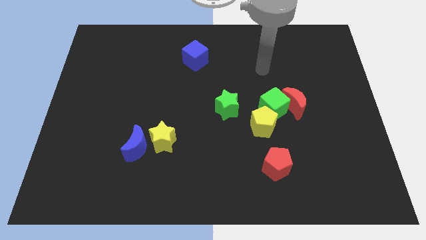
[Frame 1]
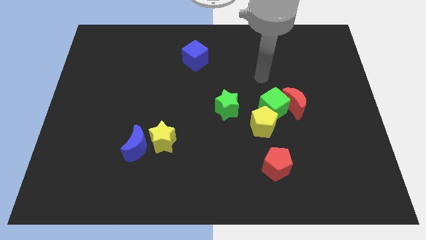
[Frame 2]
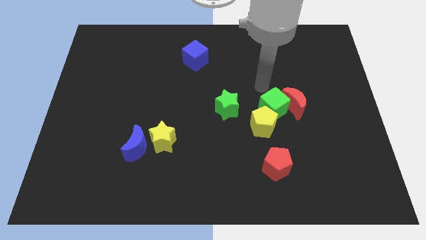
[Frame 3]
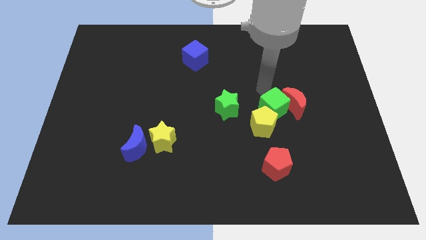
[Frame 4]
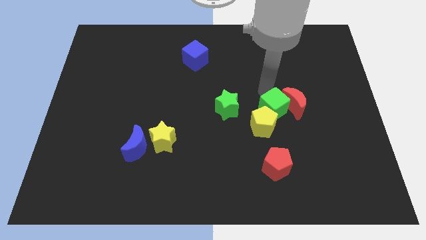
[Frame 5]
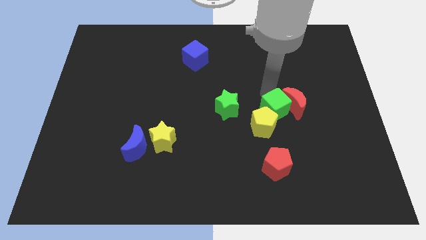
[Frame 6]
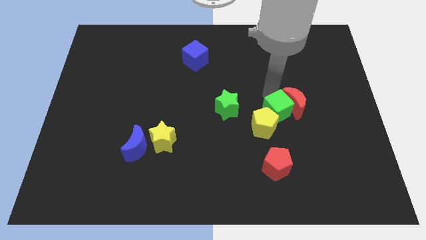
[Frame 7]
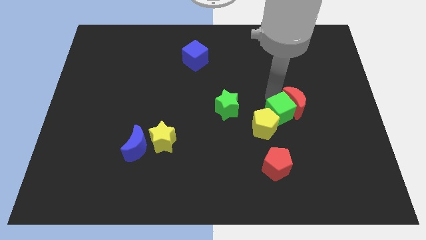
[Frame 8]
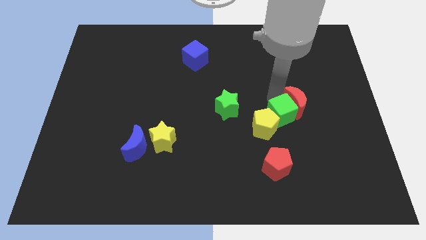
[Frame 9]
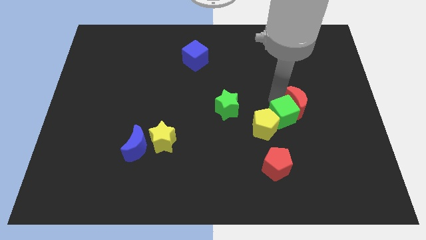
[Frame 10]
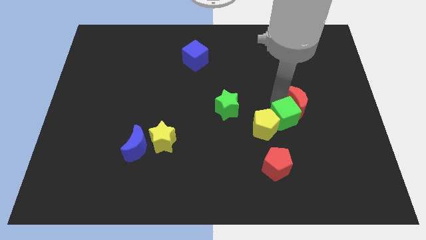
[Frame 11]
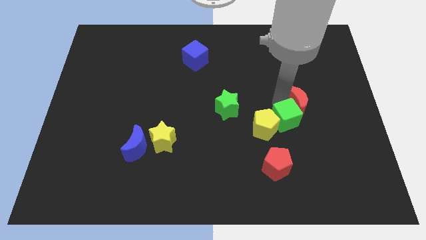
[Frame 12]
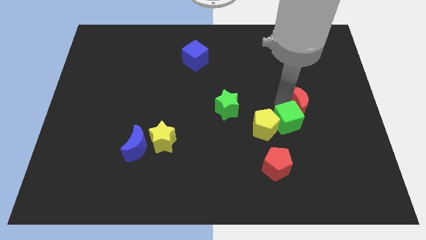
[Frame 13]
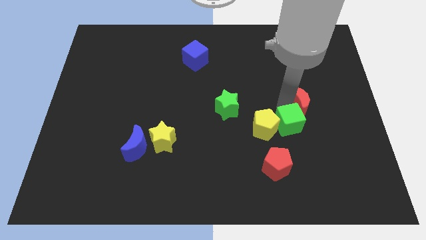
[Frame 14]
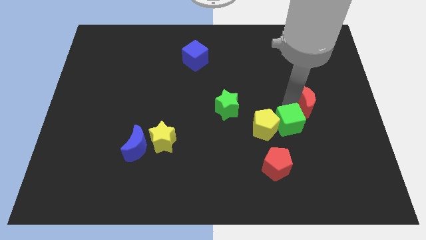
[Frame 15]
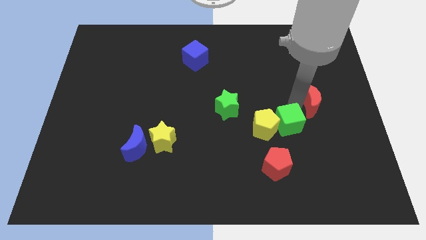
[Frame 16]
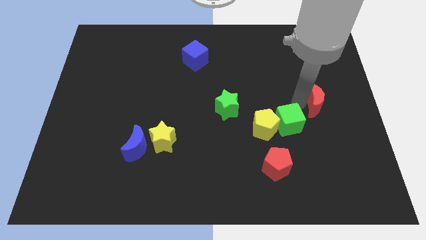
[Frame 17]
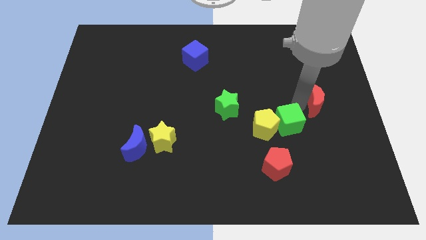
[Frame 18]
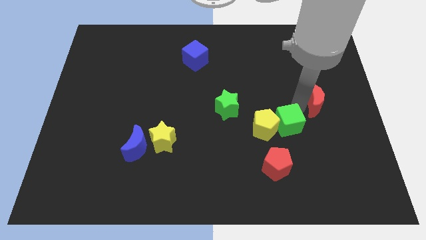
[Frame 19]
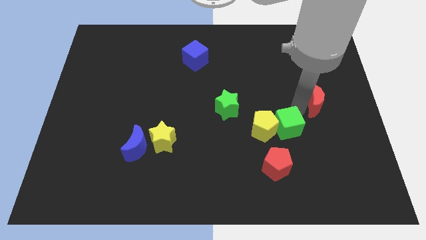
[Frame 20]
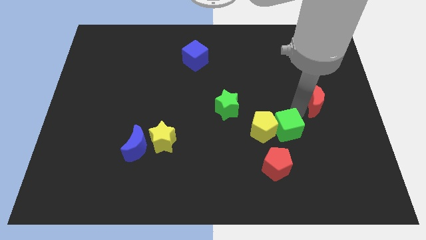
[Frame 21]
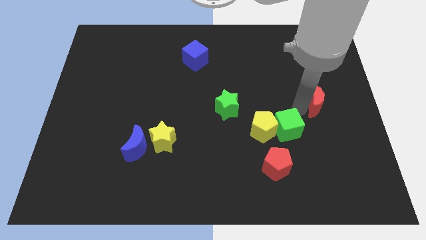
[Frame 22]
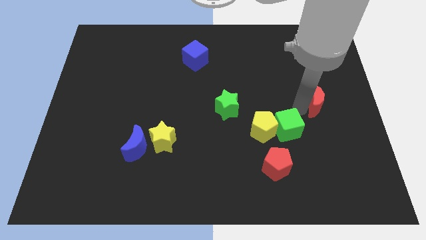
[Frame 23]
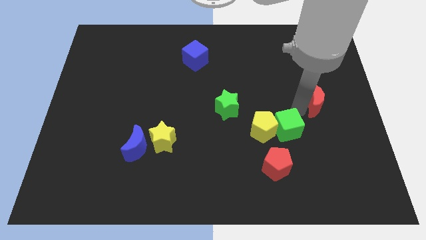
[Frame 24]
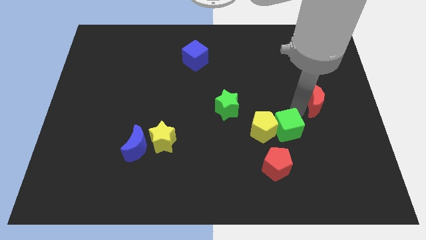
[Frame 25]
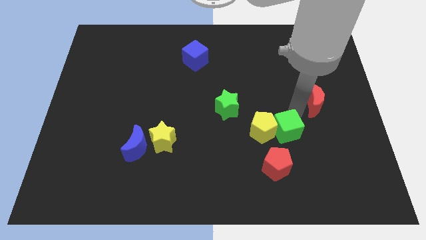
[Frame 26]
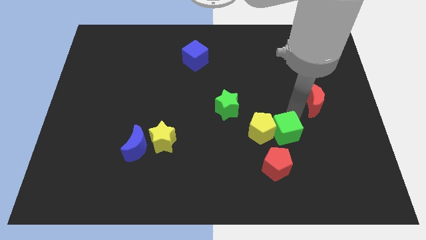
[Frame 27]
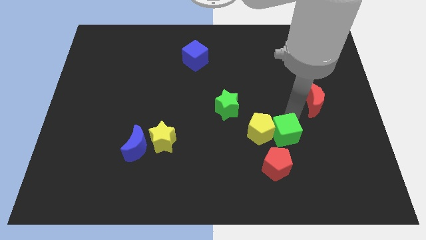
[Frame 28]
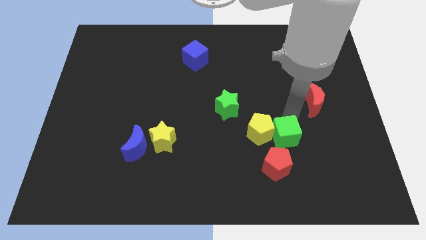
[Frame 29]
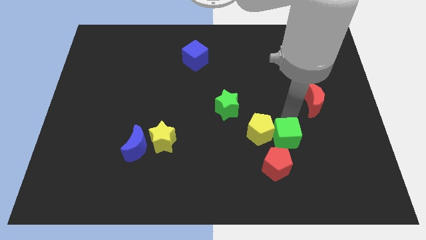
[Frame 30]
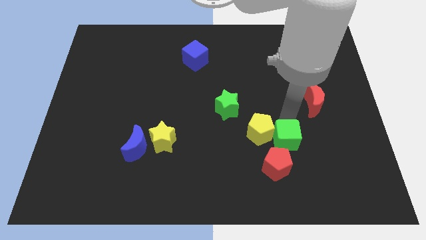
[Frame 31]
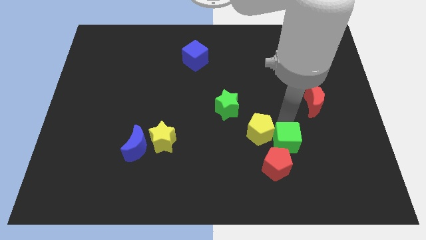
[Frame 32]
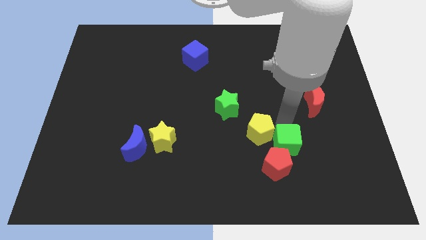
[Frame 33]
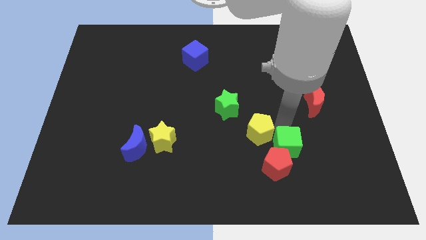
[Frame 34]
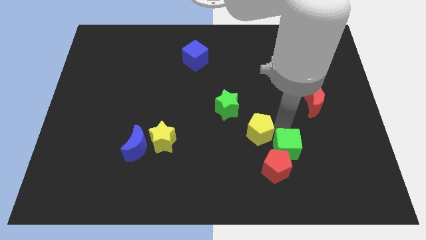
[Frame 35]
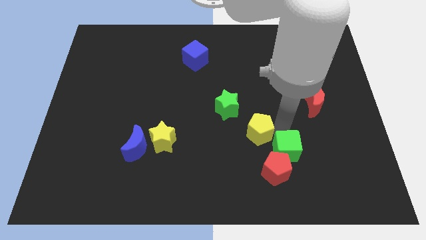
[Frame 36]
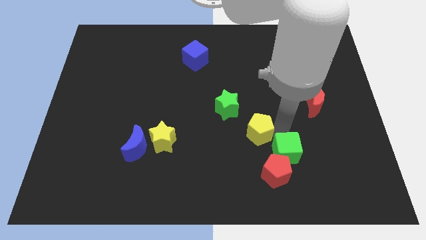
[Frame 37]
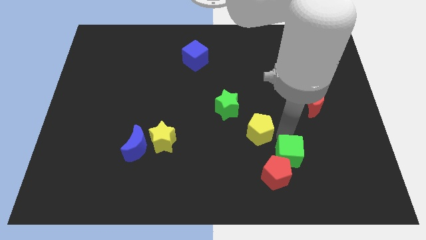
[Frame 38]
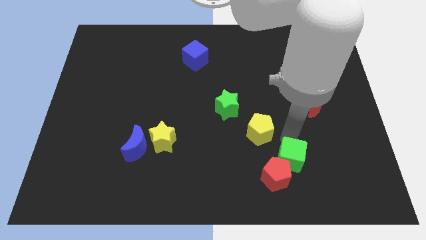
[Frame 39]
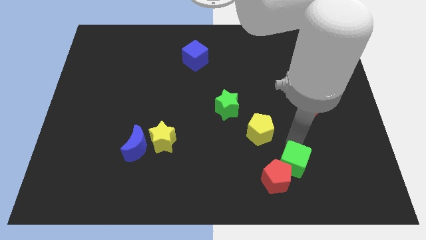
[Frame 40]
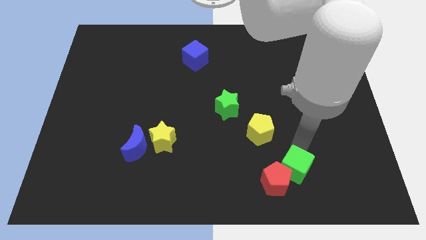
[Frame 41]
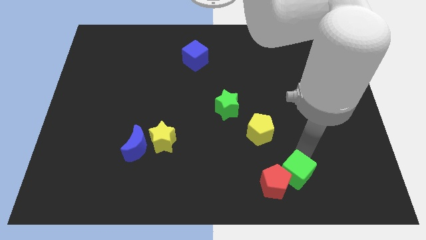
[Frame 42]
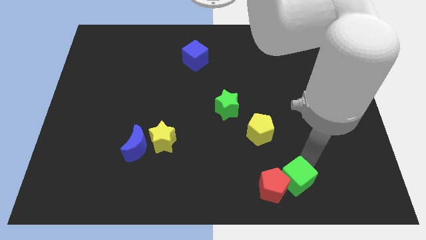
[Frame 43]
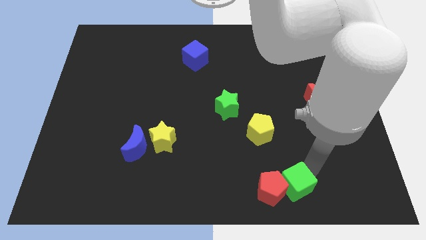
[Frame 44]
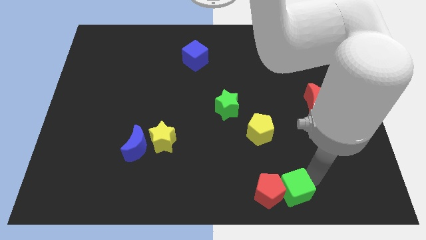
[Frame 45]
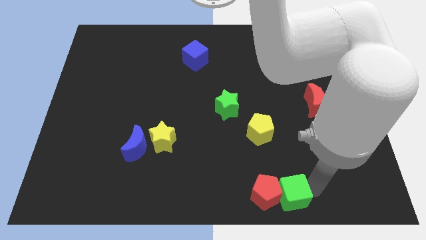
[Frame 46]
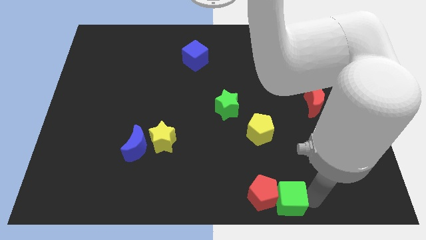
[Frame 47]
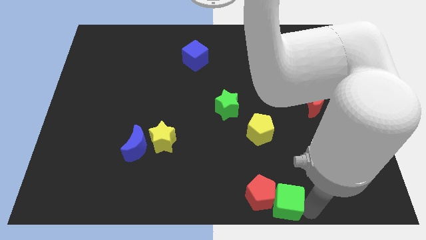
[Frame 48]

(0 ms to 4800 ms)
move the green cube to the bottom side
